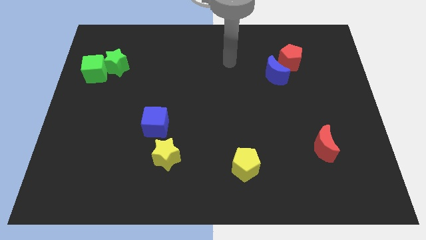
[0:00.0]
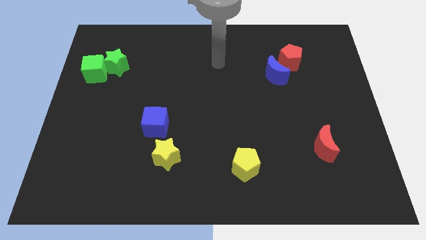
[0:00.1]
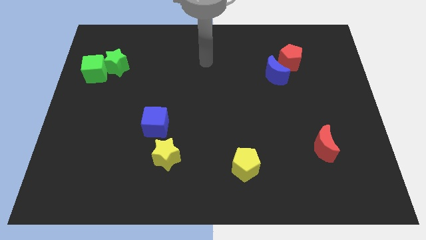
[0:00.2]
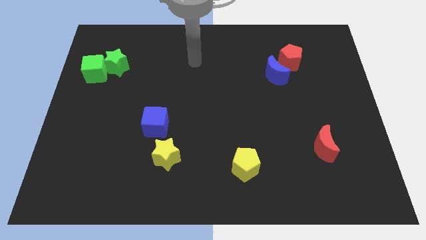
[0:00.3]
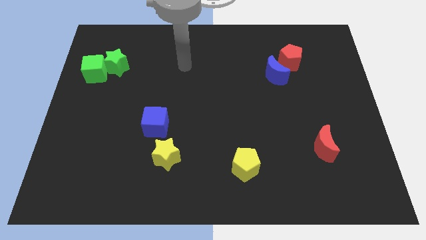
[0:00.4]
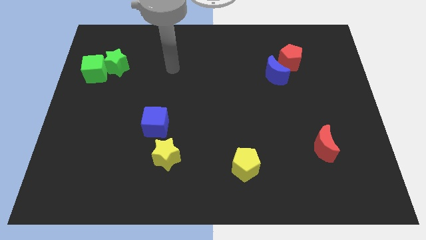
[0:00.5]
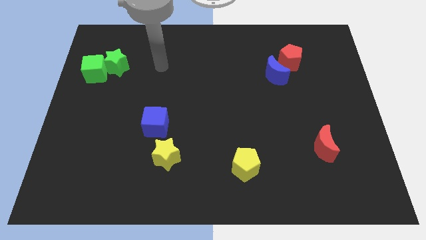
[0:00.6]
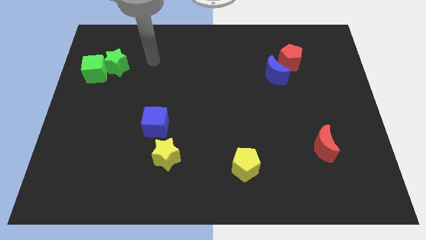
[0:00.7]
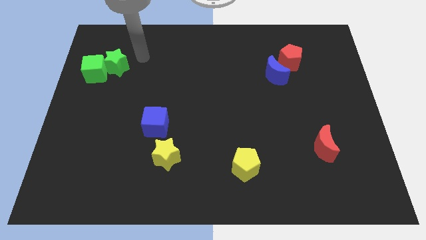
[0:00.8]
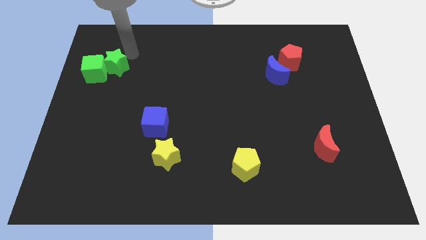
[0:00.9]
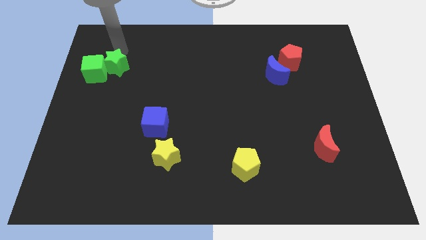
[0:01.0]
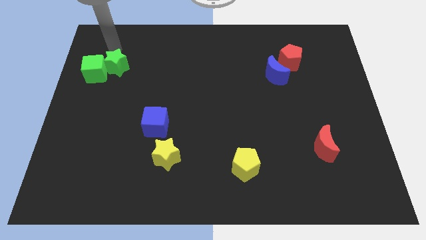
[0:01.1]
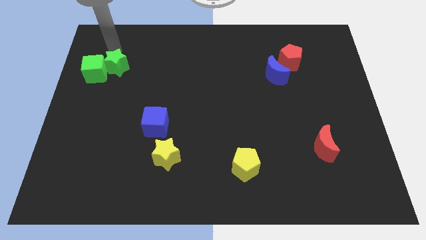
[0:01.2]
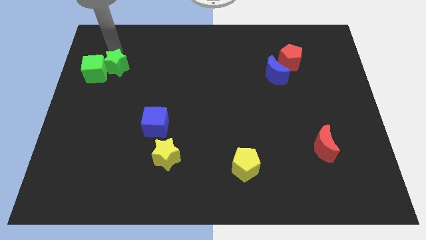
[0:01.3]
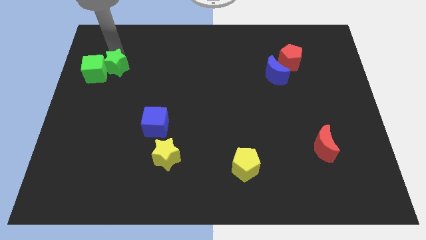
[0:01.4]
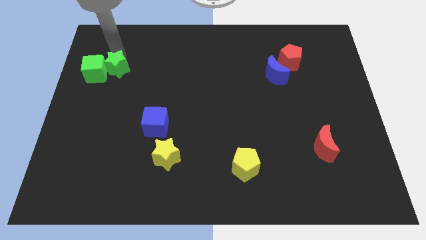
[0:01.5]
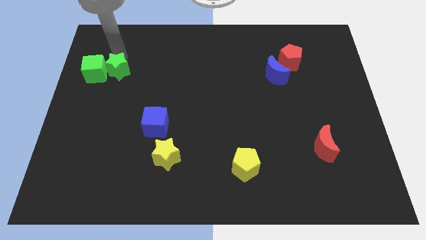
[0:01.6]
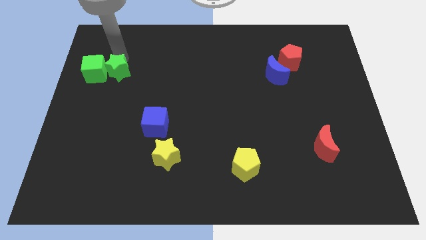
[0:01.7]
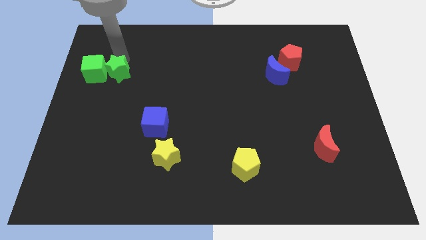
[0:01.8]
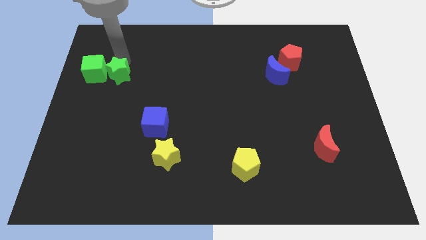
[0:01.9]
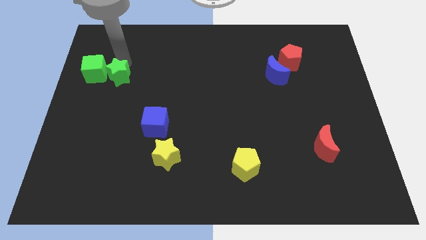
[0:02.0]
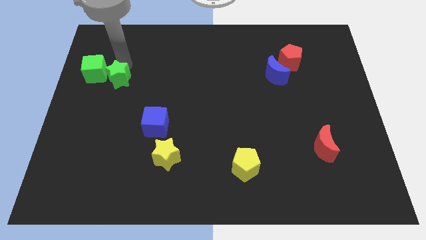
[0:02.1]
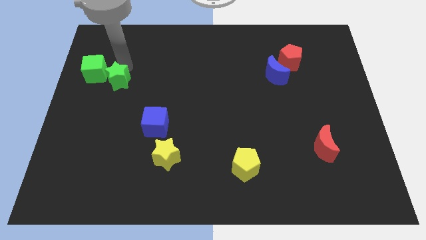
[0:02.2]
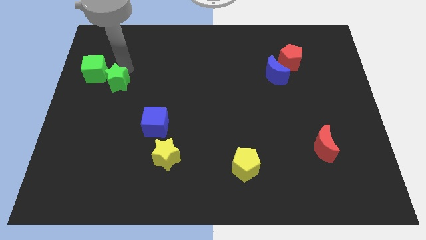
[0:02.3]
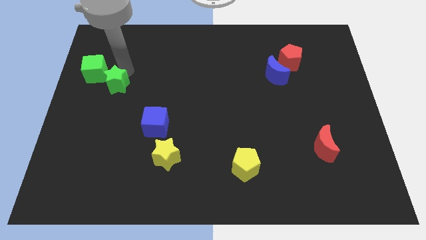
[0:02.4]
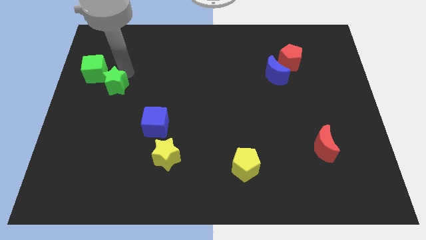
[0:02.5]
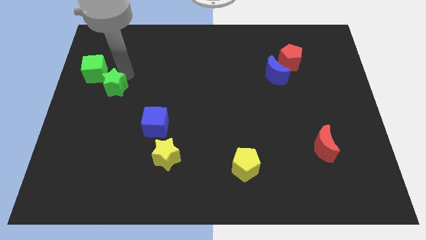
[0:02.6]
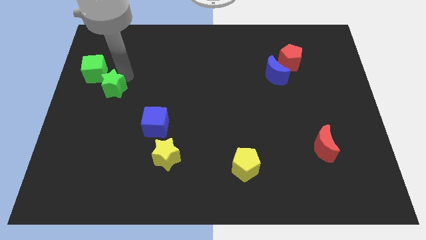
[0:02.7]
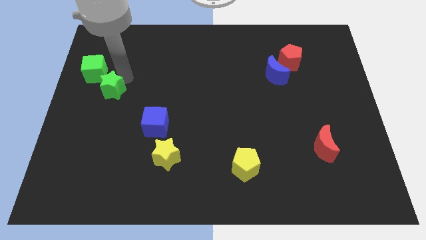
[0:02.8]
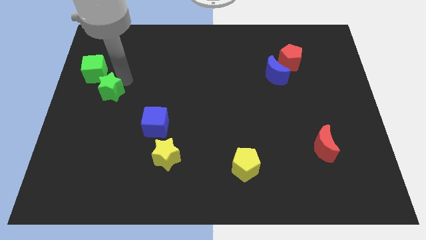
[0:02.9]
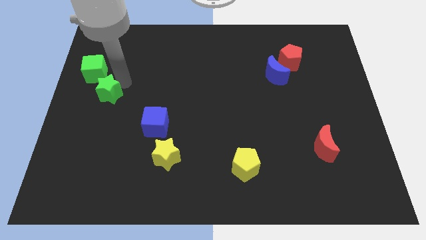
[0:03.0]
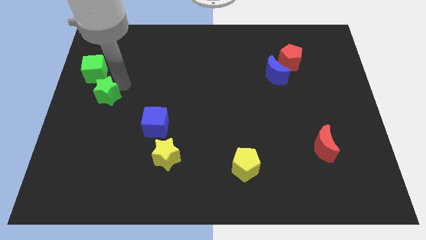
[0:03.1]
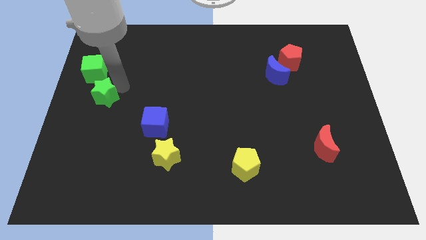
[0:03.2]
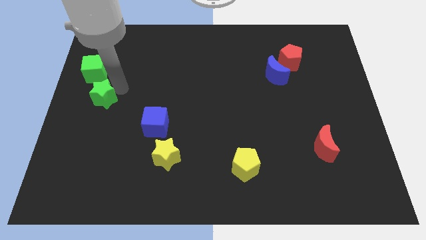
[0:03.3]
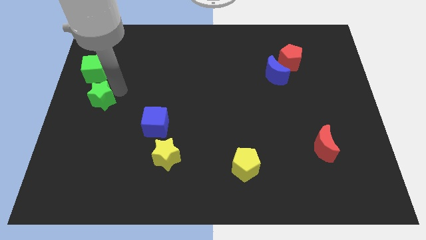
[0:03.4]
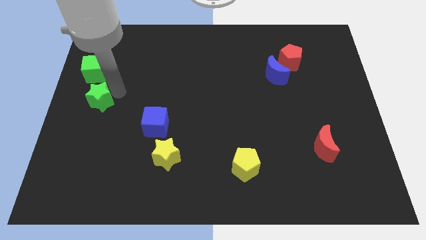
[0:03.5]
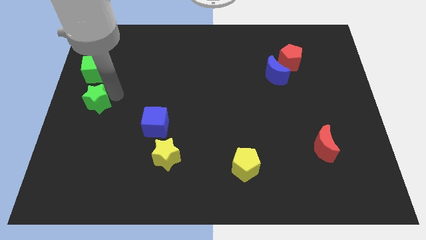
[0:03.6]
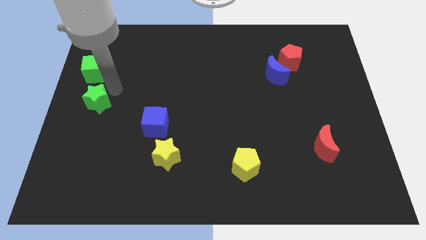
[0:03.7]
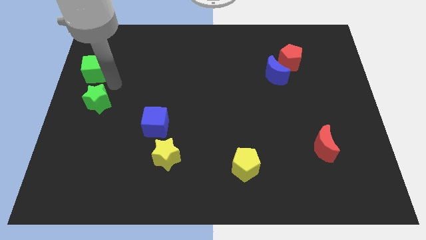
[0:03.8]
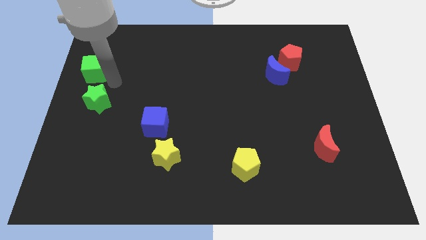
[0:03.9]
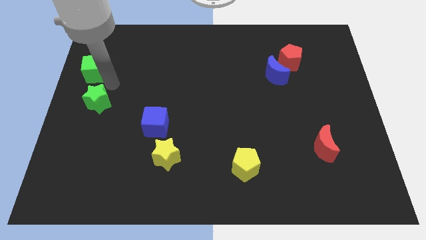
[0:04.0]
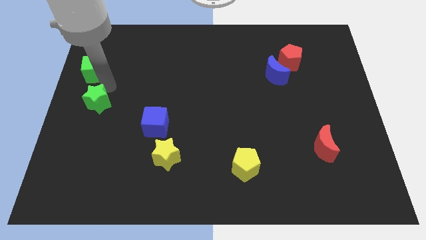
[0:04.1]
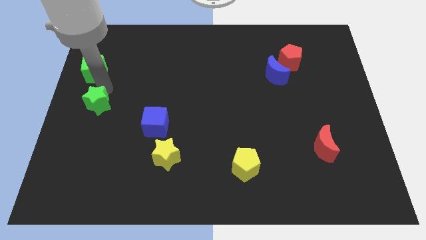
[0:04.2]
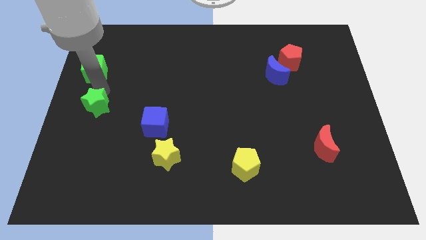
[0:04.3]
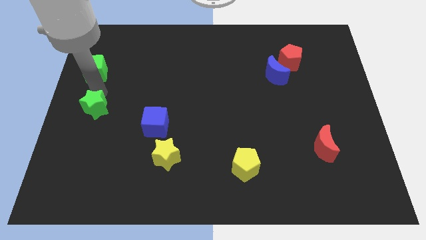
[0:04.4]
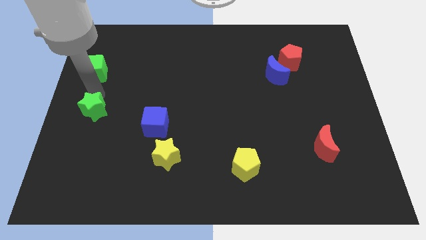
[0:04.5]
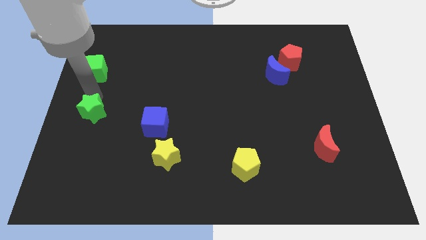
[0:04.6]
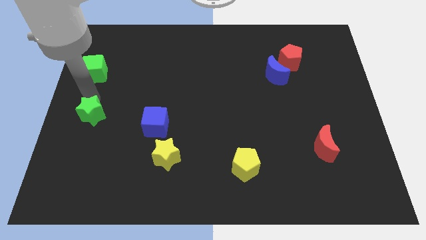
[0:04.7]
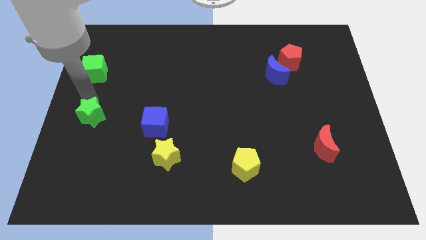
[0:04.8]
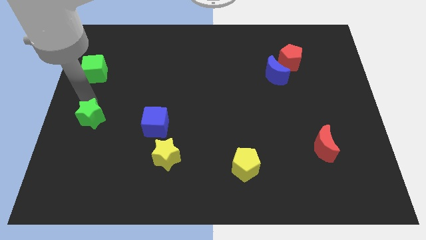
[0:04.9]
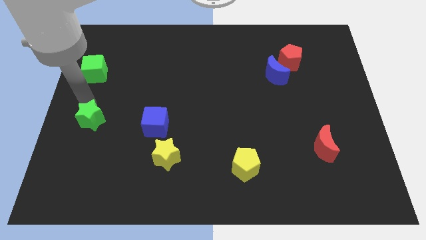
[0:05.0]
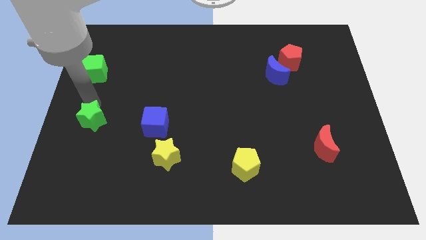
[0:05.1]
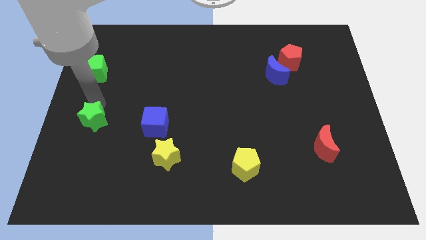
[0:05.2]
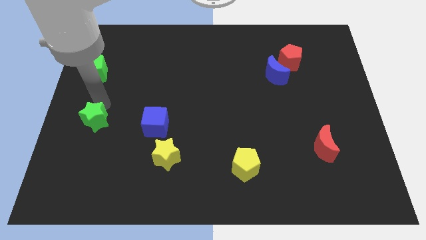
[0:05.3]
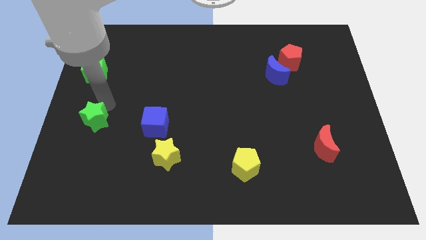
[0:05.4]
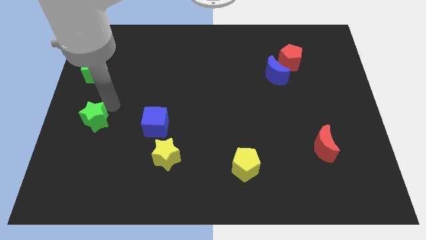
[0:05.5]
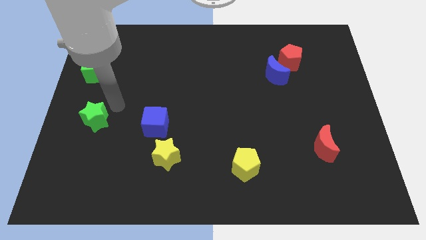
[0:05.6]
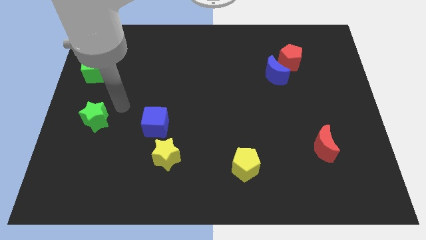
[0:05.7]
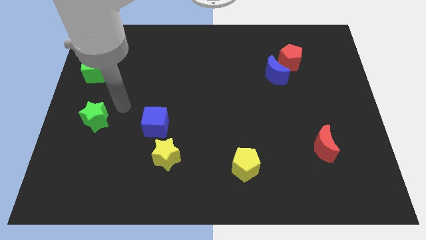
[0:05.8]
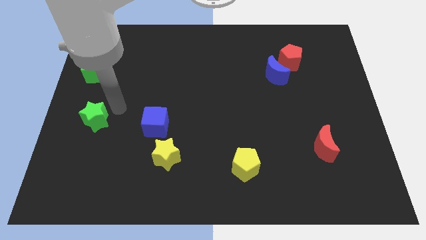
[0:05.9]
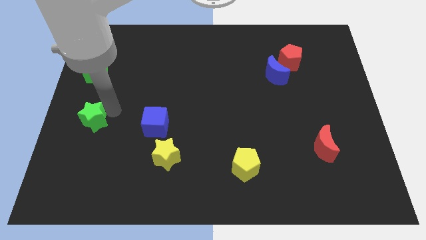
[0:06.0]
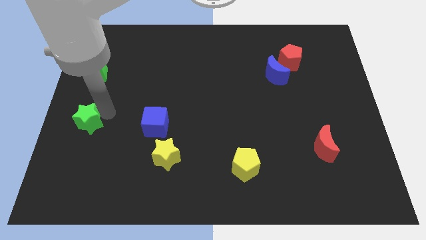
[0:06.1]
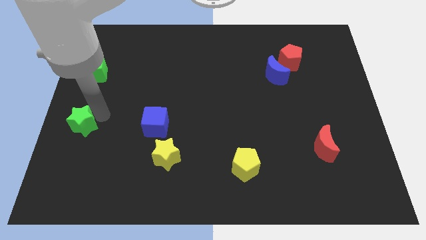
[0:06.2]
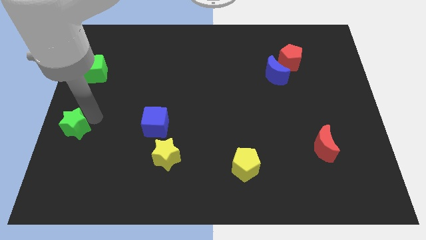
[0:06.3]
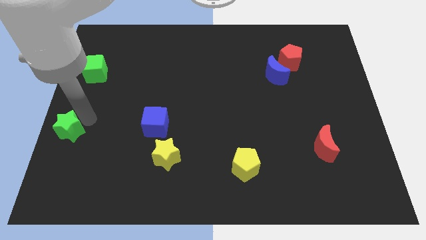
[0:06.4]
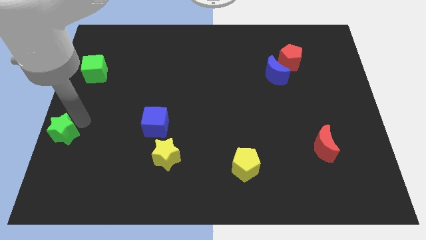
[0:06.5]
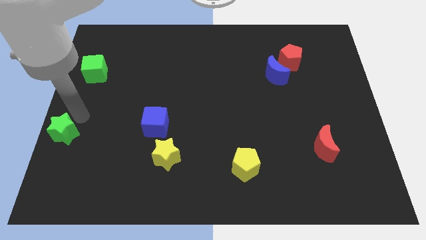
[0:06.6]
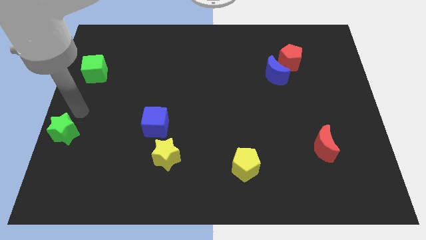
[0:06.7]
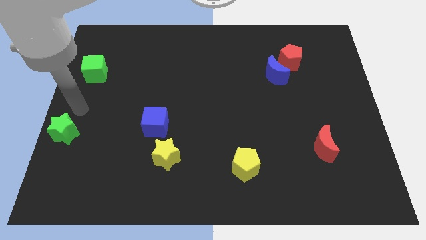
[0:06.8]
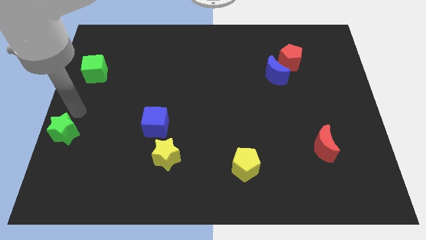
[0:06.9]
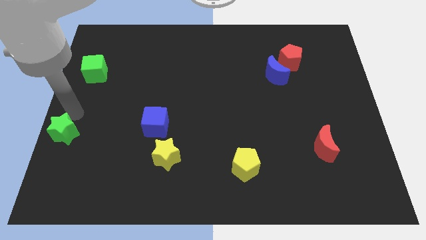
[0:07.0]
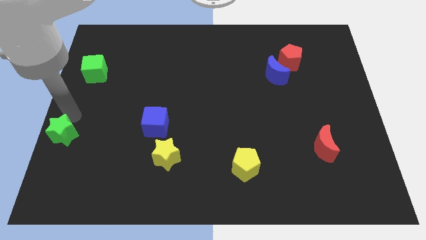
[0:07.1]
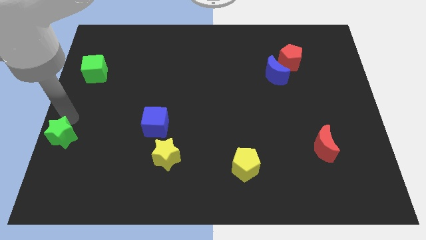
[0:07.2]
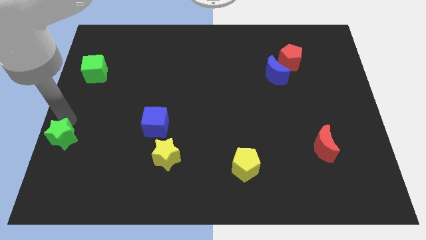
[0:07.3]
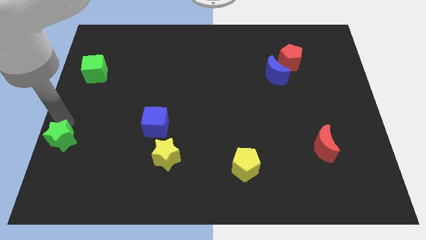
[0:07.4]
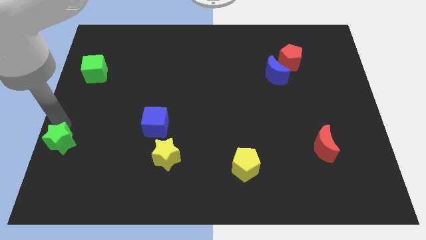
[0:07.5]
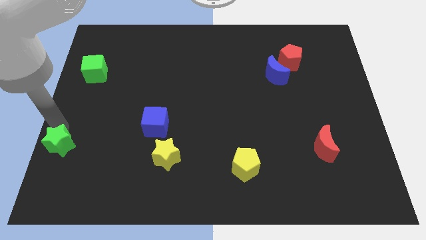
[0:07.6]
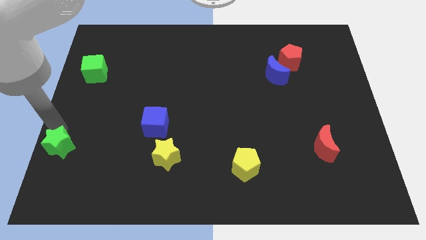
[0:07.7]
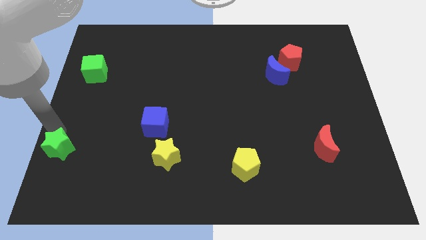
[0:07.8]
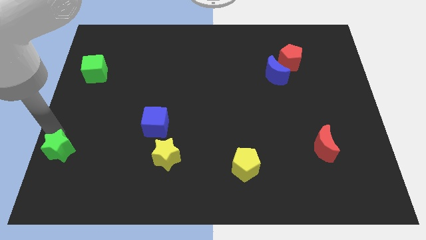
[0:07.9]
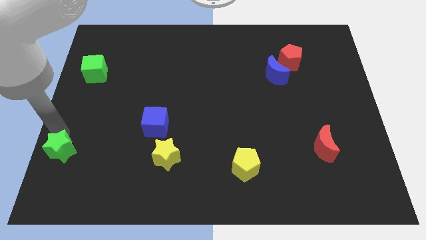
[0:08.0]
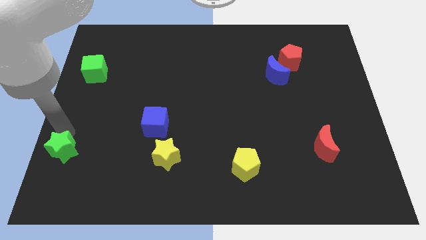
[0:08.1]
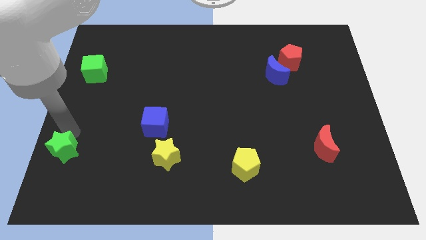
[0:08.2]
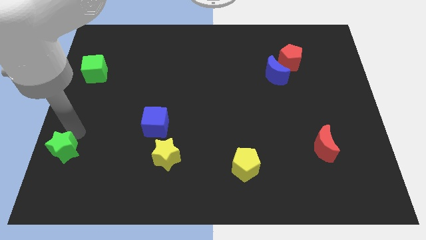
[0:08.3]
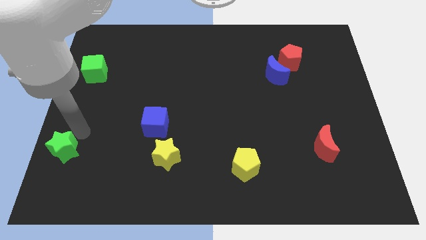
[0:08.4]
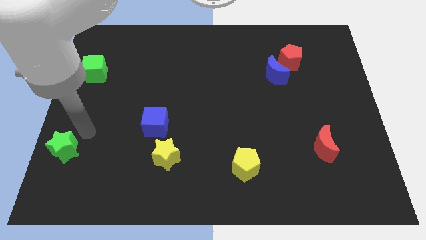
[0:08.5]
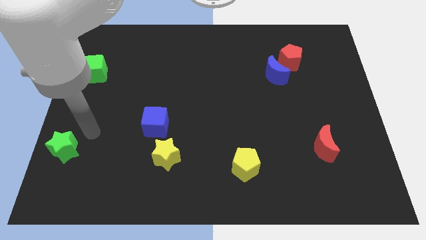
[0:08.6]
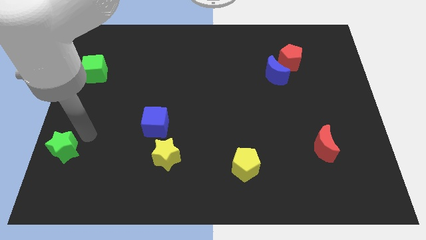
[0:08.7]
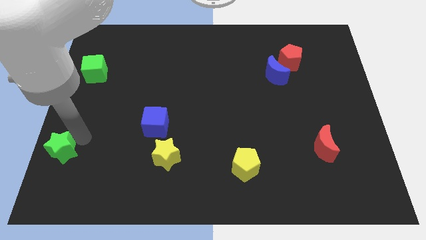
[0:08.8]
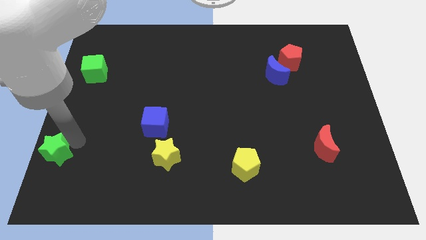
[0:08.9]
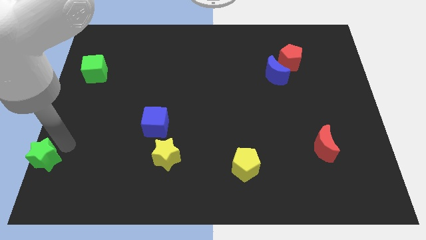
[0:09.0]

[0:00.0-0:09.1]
put the green star to the bottom left of the board
